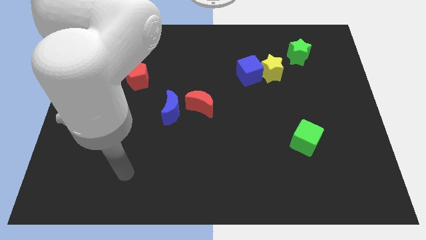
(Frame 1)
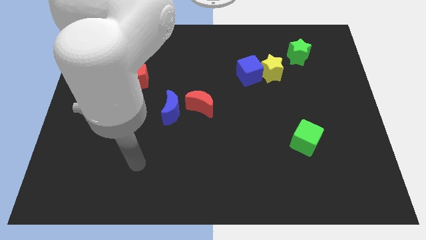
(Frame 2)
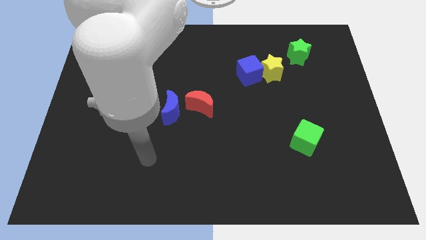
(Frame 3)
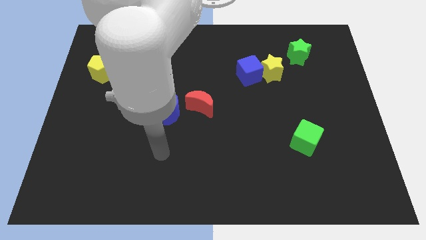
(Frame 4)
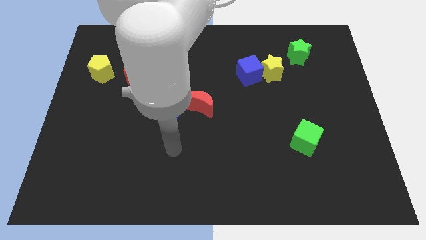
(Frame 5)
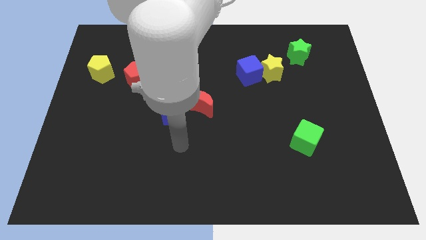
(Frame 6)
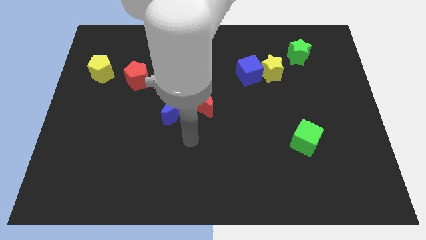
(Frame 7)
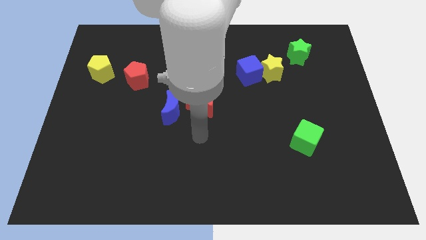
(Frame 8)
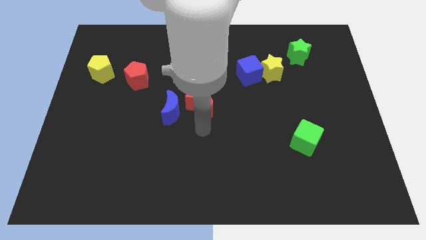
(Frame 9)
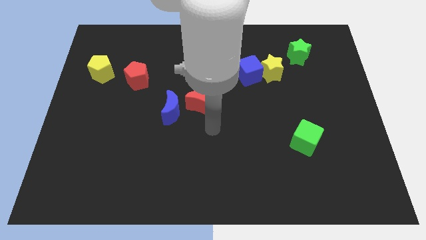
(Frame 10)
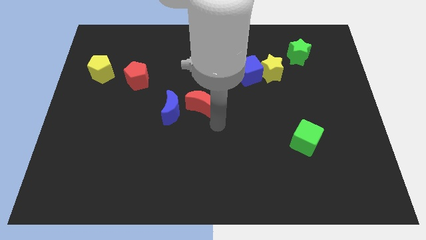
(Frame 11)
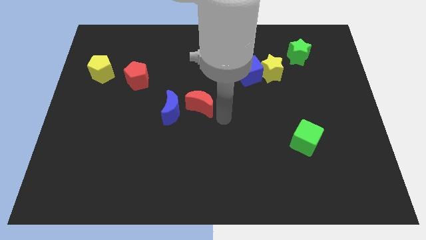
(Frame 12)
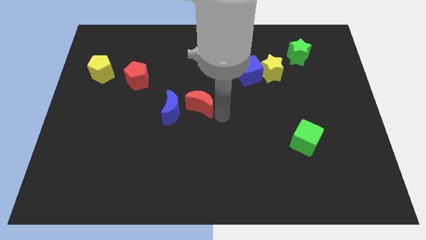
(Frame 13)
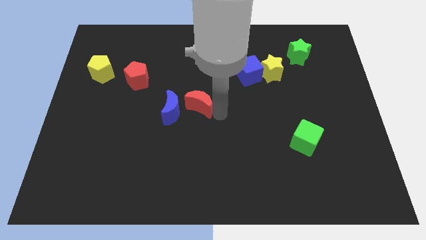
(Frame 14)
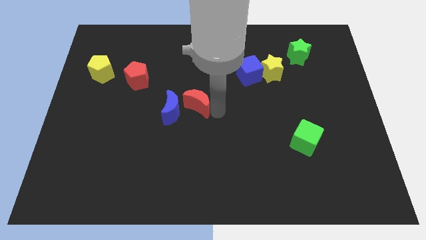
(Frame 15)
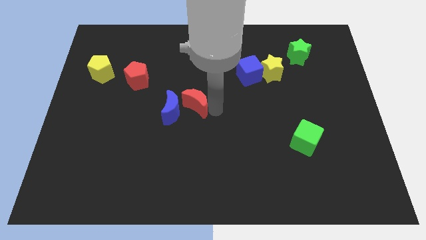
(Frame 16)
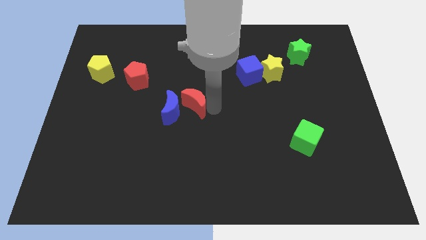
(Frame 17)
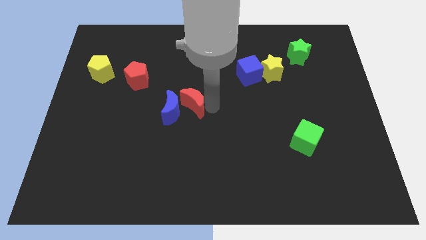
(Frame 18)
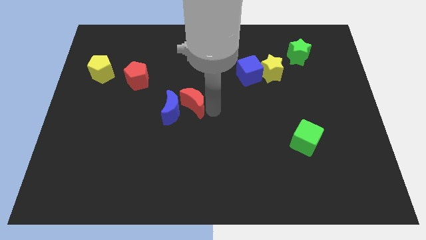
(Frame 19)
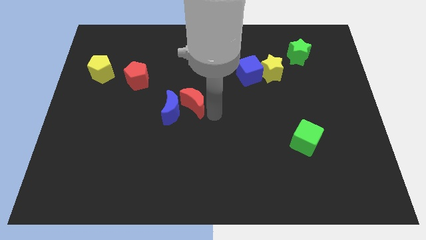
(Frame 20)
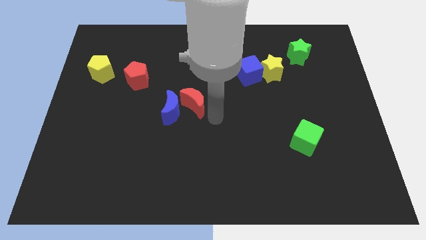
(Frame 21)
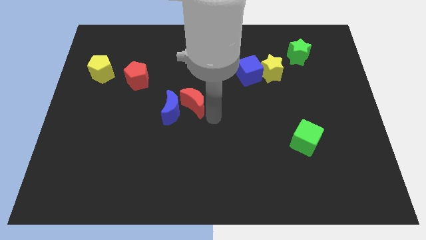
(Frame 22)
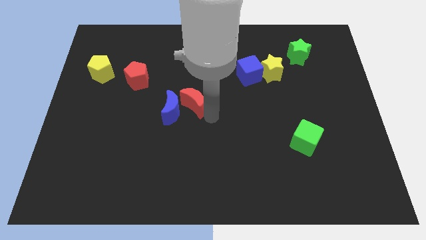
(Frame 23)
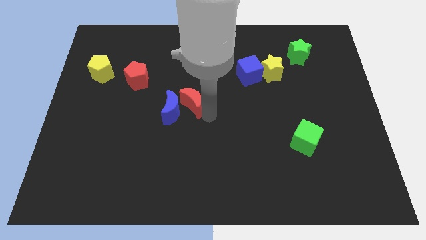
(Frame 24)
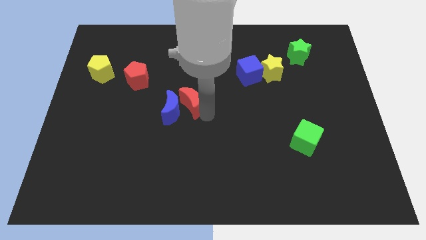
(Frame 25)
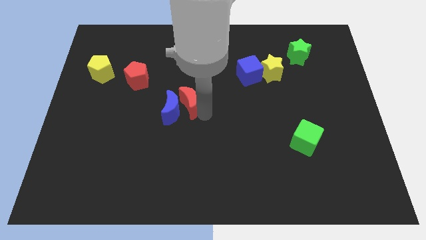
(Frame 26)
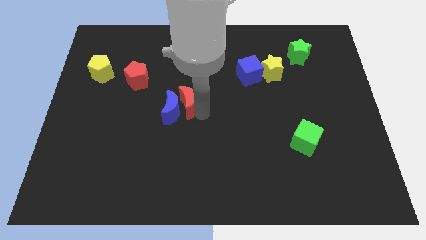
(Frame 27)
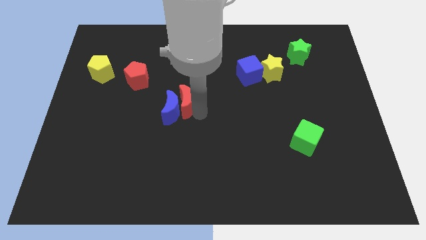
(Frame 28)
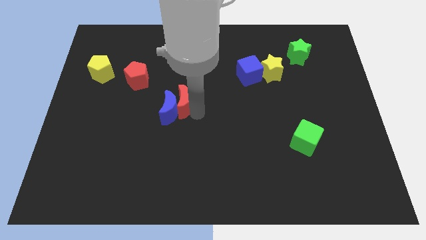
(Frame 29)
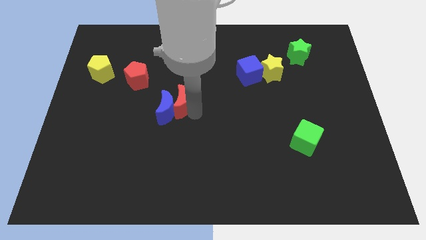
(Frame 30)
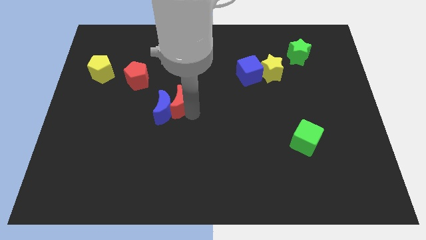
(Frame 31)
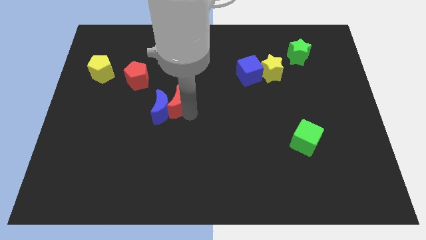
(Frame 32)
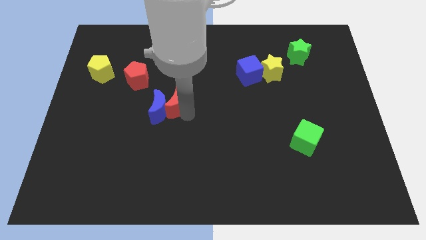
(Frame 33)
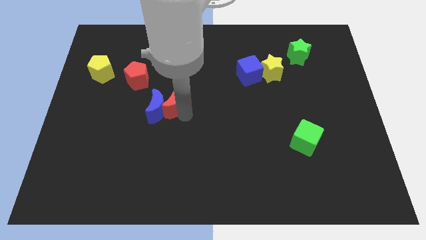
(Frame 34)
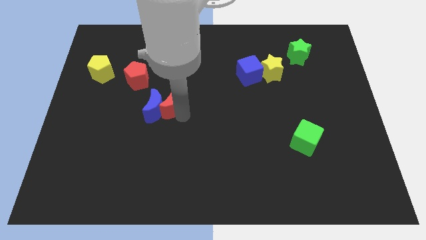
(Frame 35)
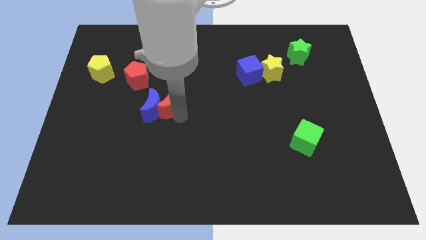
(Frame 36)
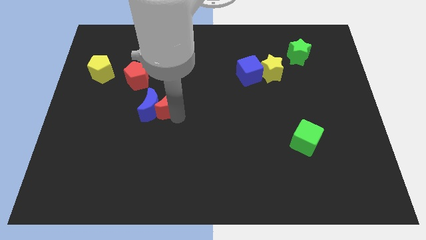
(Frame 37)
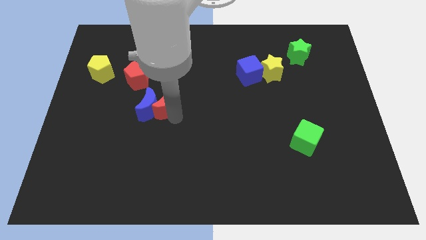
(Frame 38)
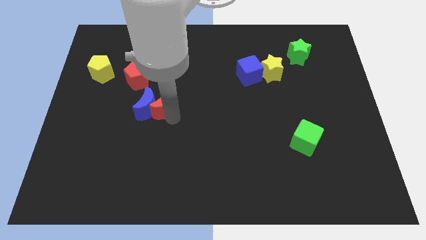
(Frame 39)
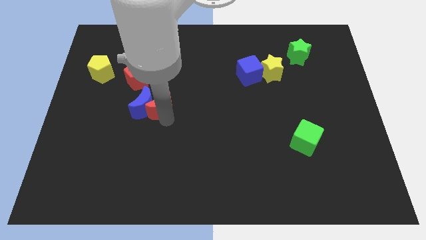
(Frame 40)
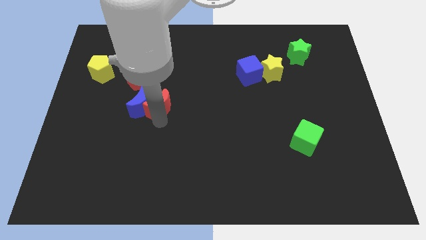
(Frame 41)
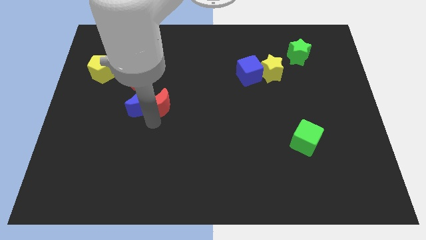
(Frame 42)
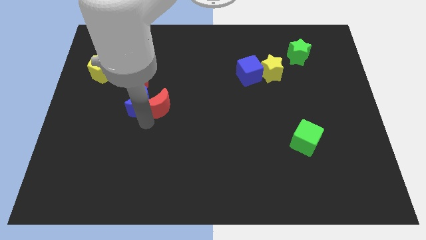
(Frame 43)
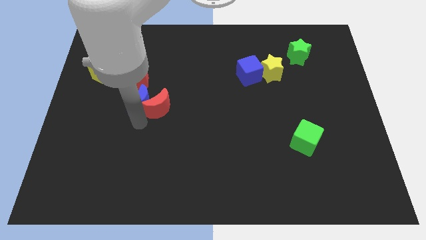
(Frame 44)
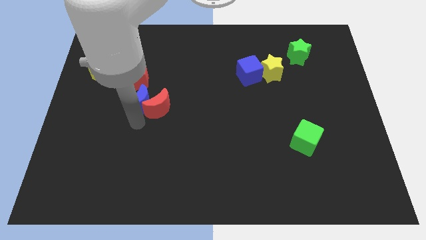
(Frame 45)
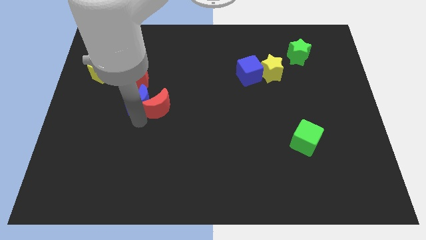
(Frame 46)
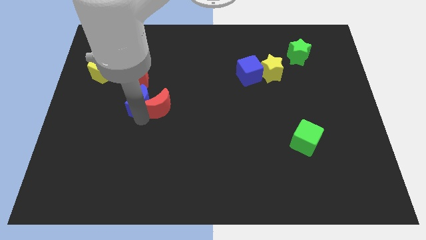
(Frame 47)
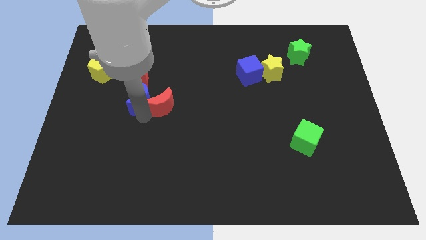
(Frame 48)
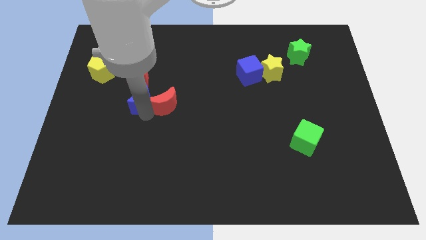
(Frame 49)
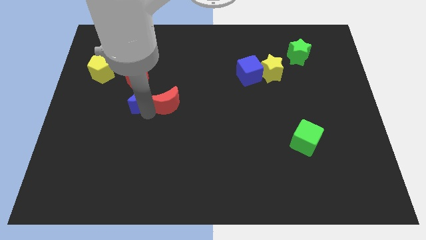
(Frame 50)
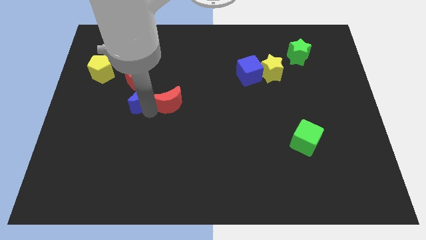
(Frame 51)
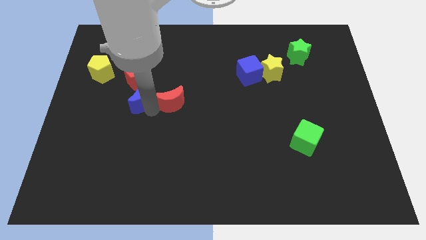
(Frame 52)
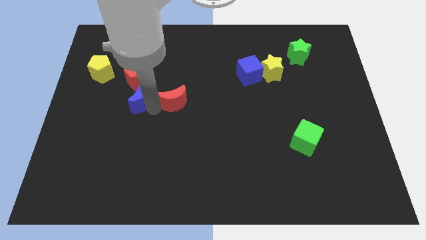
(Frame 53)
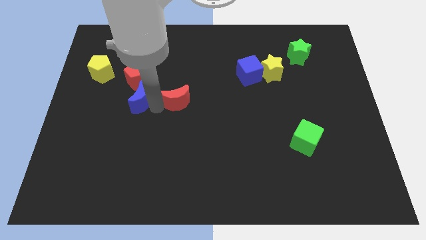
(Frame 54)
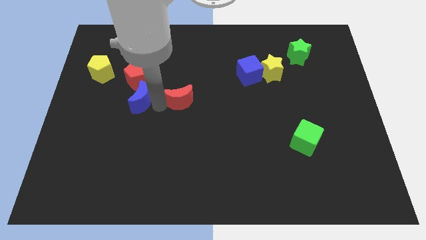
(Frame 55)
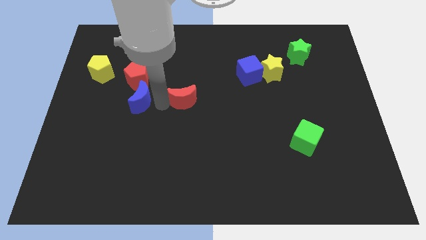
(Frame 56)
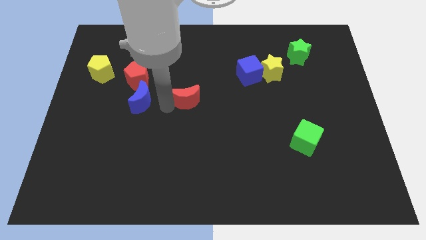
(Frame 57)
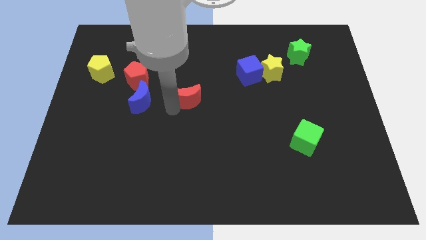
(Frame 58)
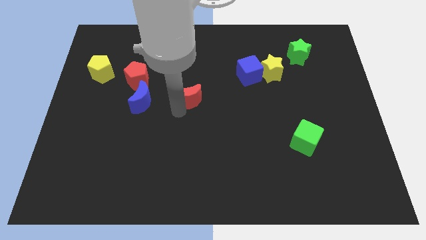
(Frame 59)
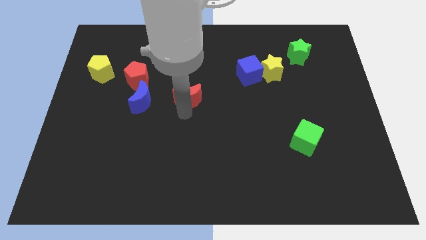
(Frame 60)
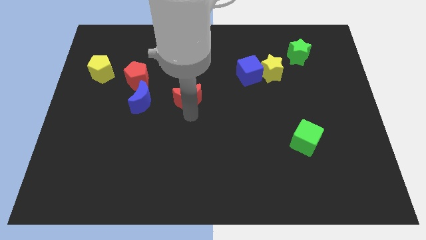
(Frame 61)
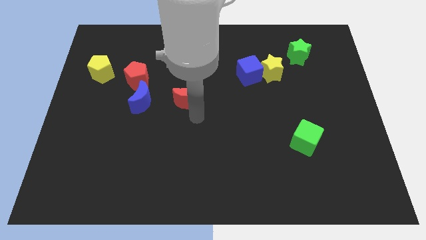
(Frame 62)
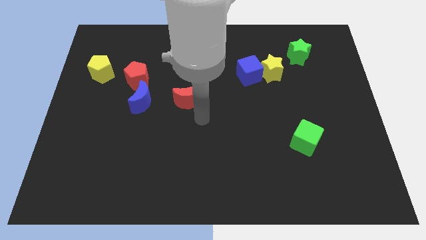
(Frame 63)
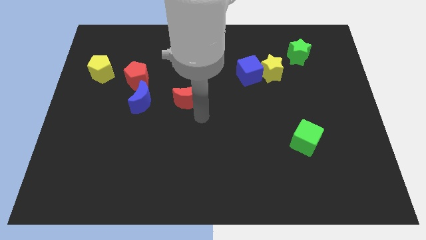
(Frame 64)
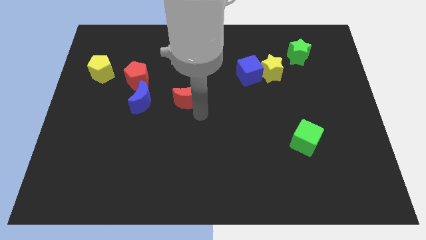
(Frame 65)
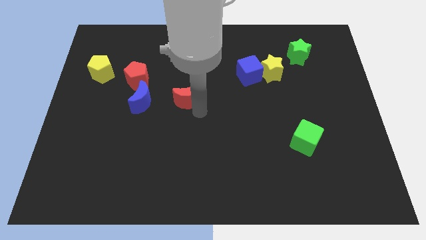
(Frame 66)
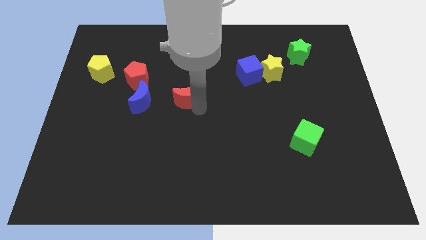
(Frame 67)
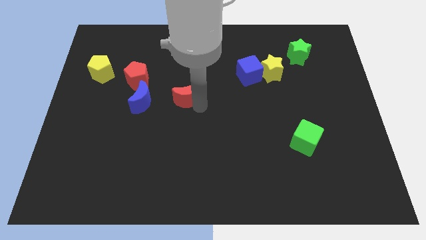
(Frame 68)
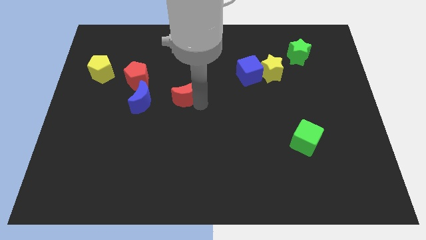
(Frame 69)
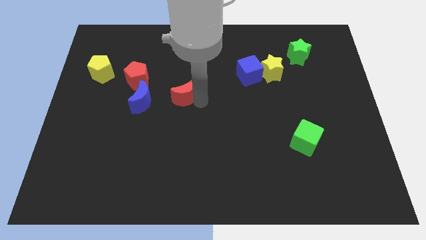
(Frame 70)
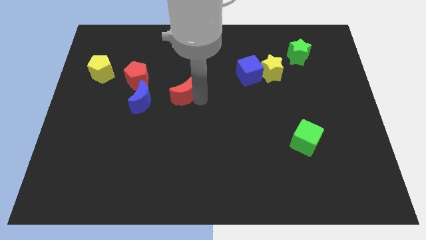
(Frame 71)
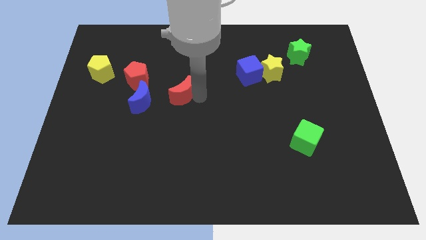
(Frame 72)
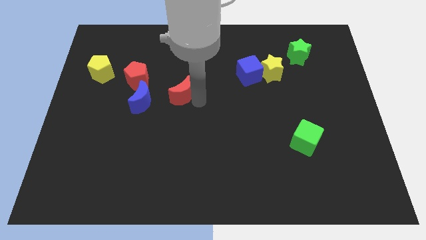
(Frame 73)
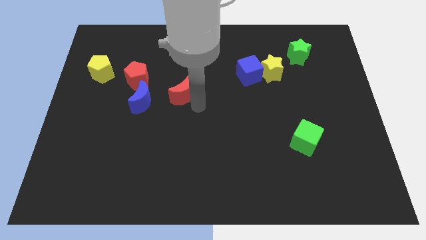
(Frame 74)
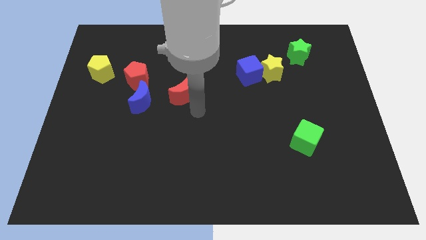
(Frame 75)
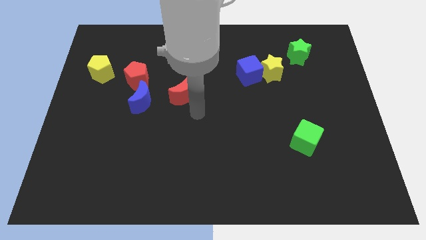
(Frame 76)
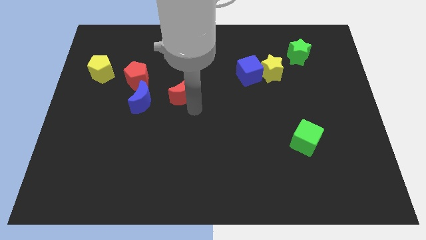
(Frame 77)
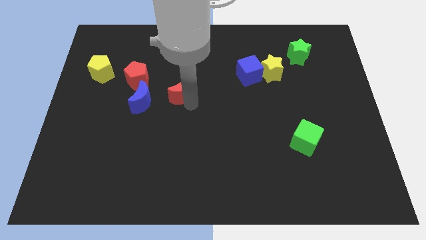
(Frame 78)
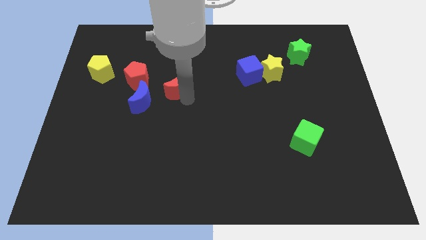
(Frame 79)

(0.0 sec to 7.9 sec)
slide the red moon diagonally upwards and left slightly
